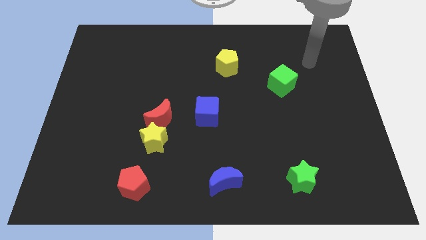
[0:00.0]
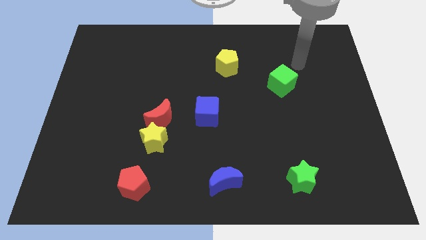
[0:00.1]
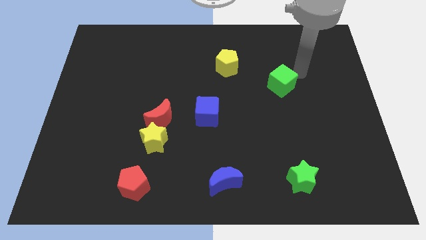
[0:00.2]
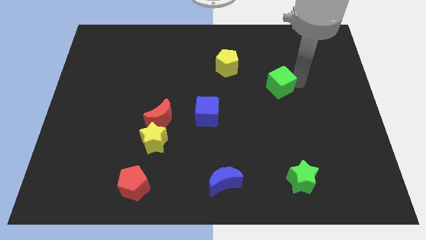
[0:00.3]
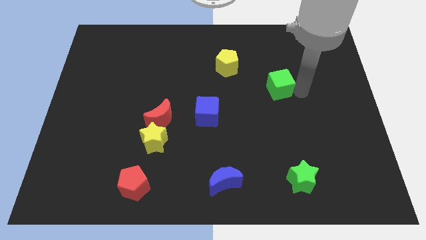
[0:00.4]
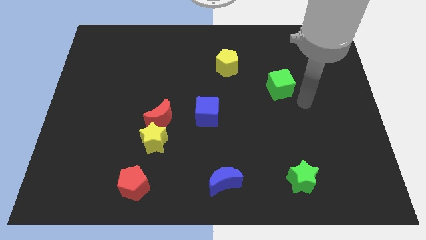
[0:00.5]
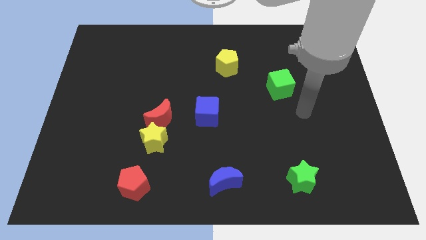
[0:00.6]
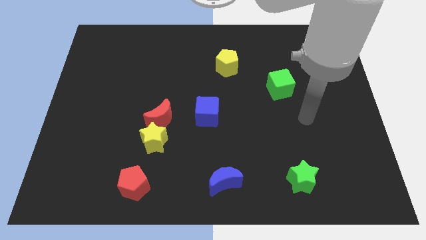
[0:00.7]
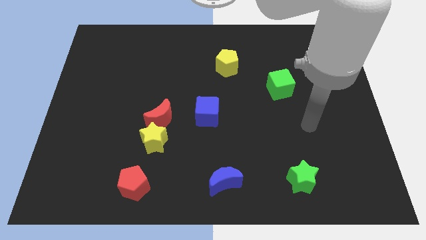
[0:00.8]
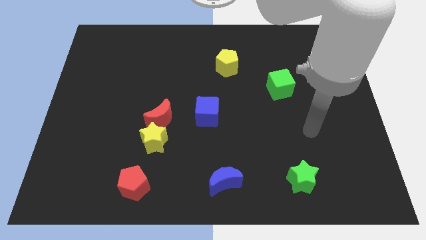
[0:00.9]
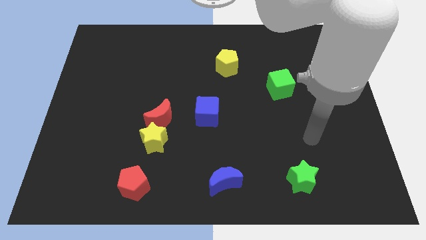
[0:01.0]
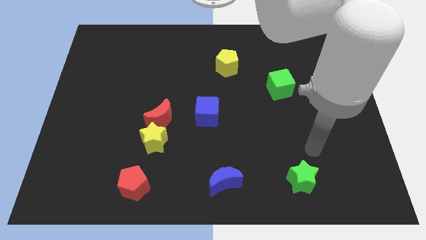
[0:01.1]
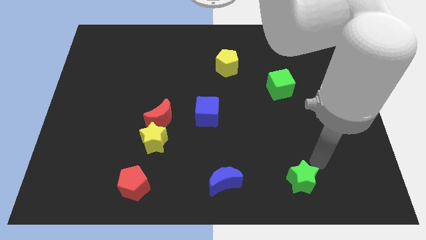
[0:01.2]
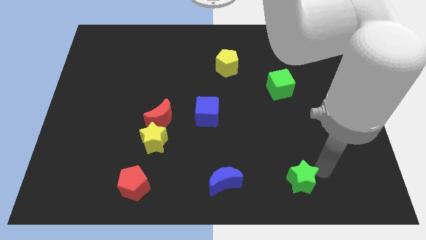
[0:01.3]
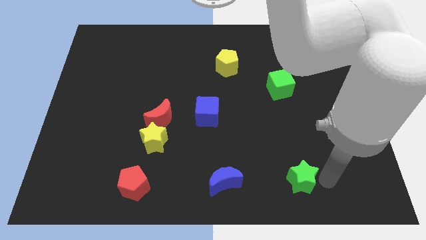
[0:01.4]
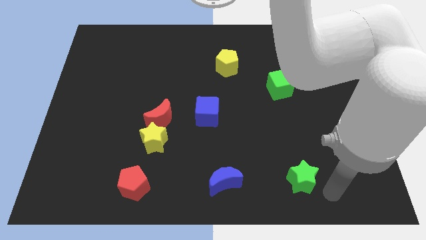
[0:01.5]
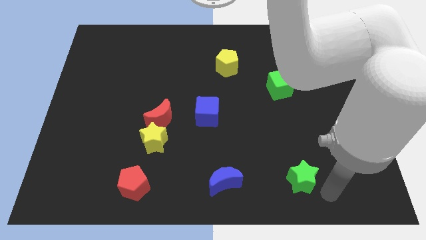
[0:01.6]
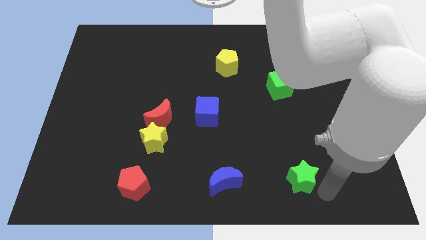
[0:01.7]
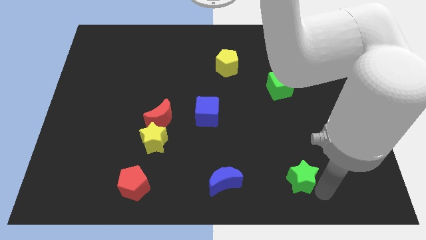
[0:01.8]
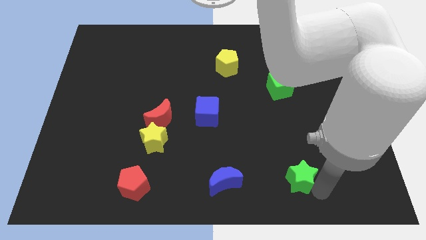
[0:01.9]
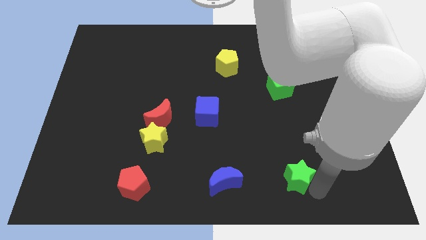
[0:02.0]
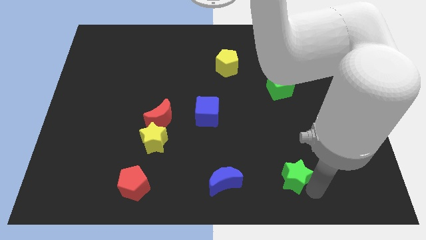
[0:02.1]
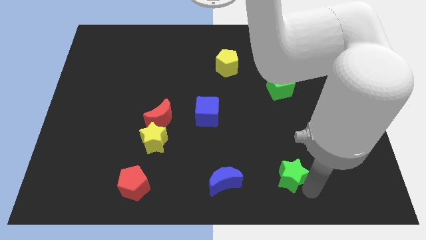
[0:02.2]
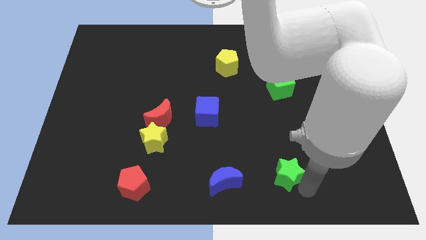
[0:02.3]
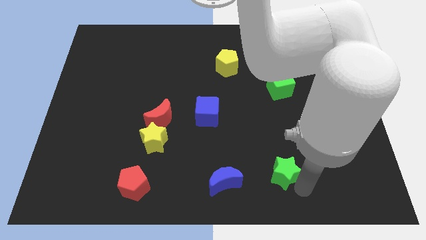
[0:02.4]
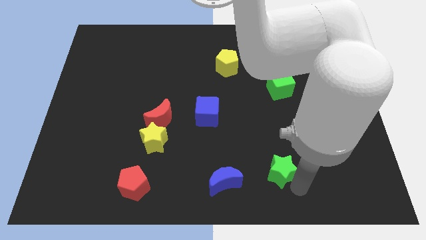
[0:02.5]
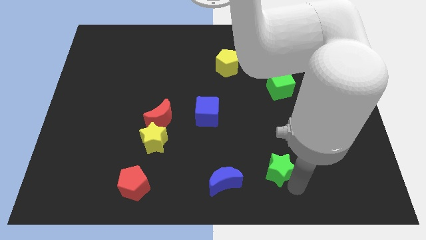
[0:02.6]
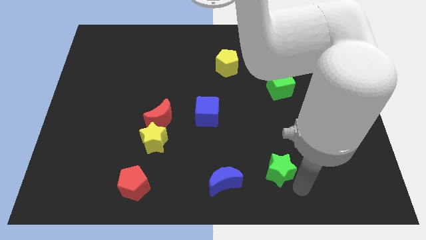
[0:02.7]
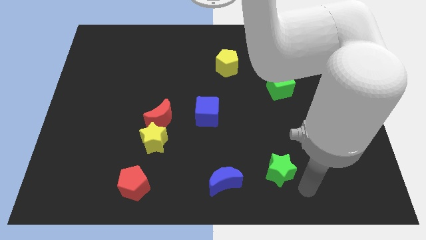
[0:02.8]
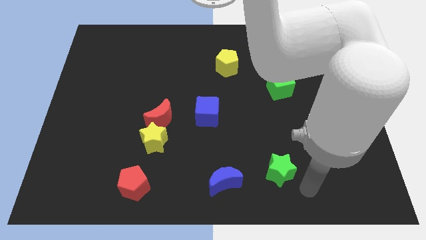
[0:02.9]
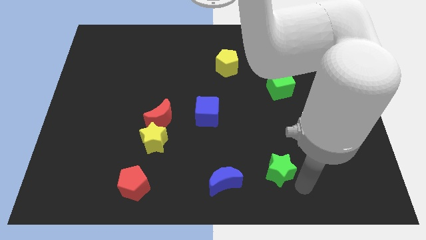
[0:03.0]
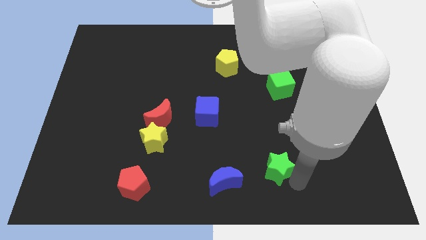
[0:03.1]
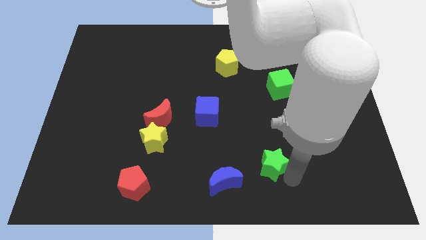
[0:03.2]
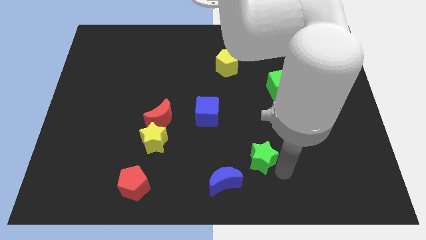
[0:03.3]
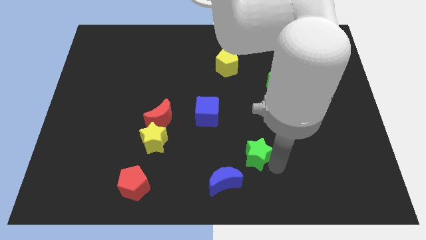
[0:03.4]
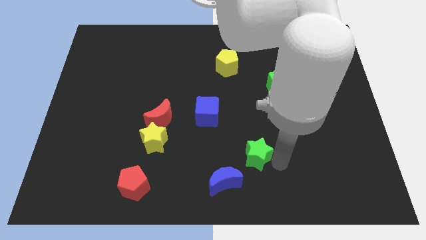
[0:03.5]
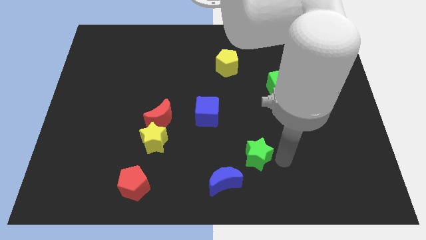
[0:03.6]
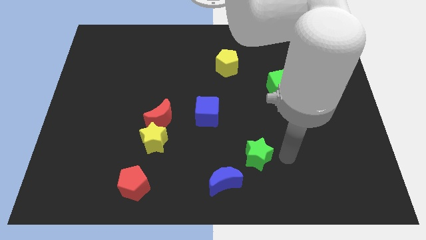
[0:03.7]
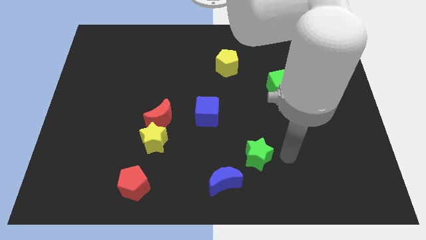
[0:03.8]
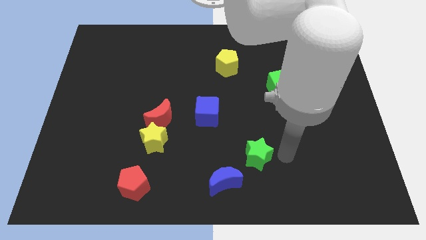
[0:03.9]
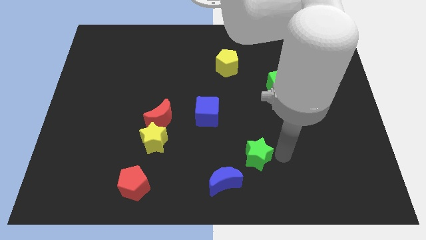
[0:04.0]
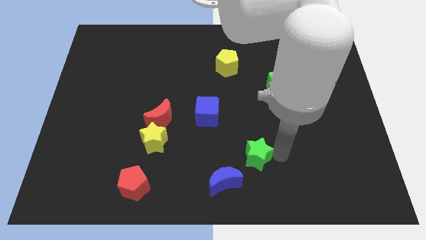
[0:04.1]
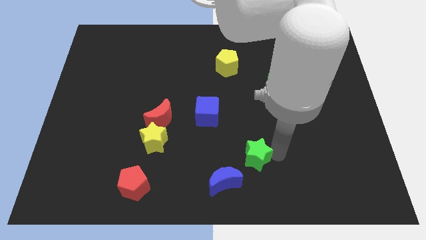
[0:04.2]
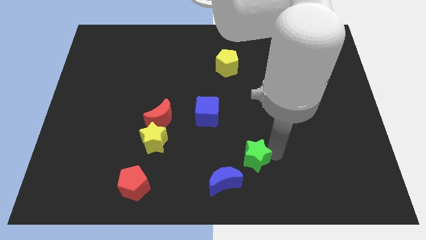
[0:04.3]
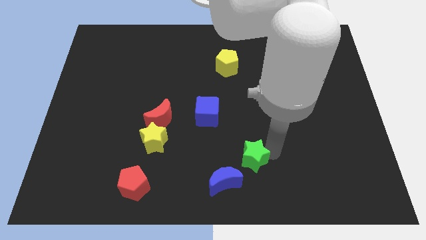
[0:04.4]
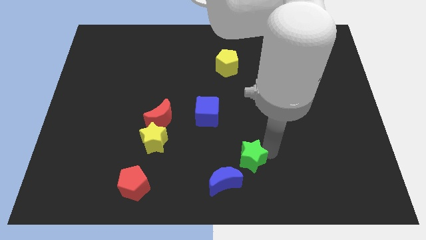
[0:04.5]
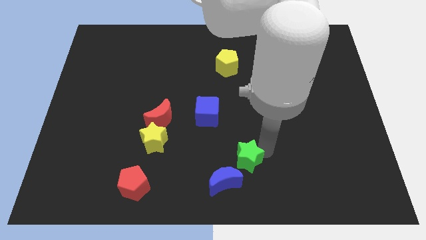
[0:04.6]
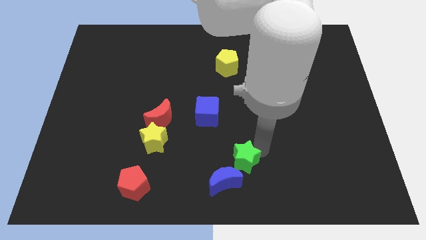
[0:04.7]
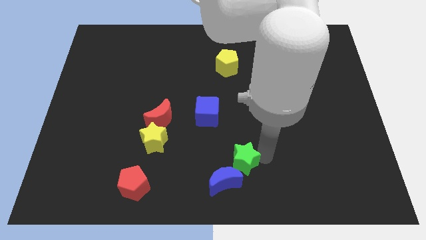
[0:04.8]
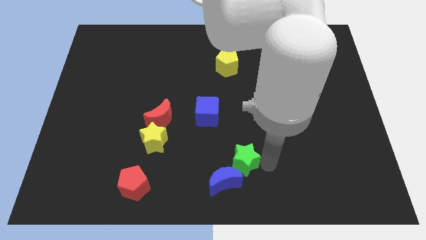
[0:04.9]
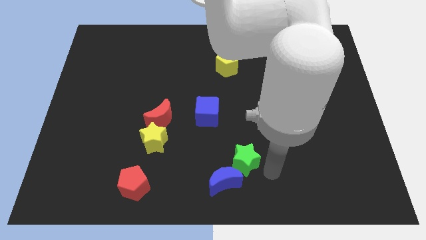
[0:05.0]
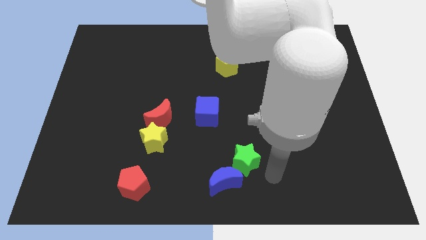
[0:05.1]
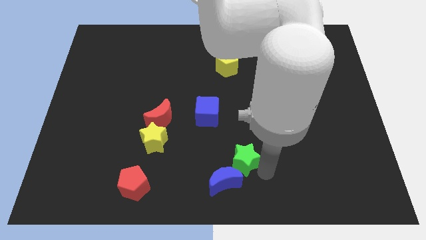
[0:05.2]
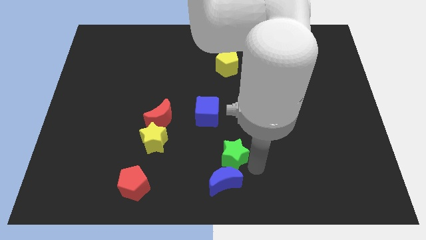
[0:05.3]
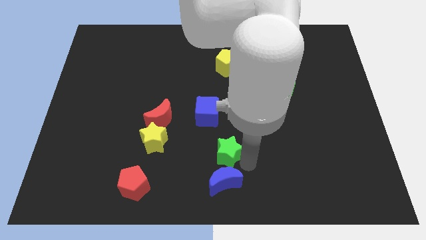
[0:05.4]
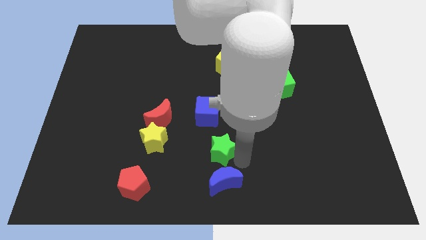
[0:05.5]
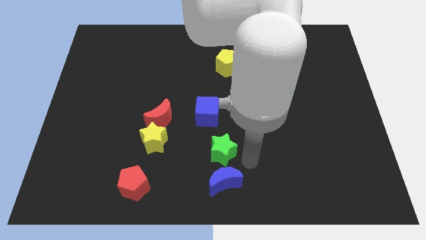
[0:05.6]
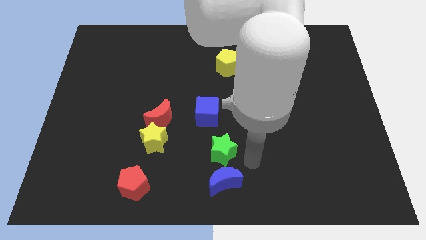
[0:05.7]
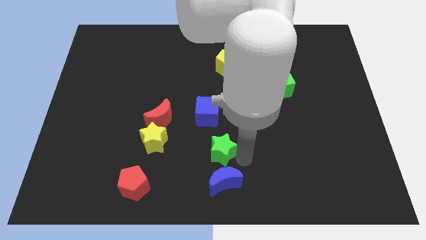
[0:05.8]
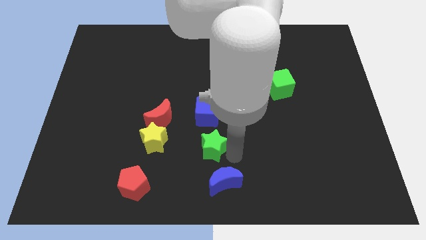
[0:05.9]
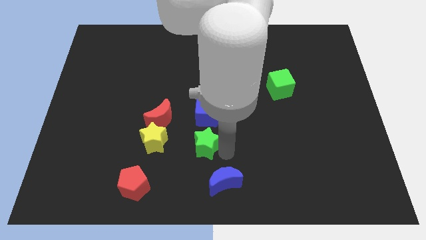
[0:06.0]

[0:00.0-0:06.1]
push the green star to the bottom right side of the red moon

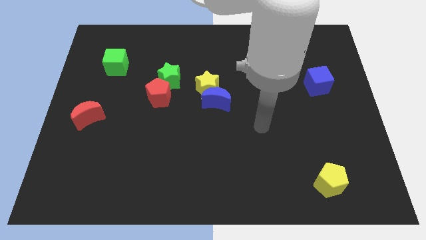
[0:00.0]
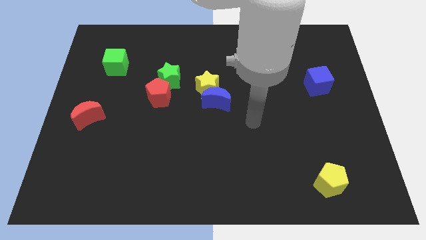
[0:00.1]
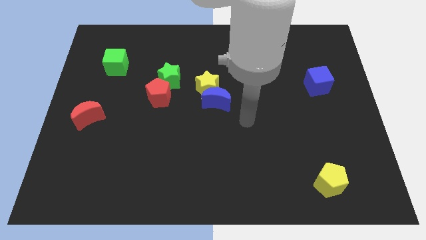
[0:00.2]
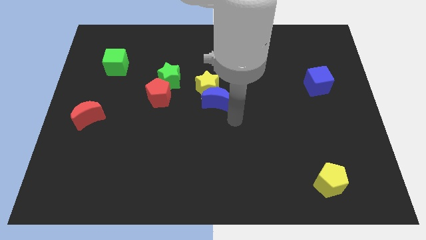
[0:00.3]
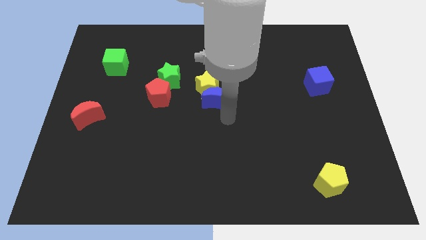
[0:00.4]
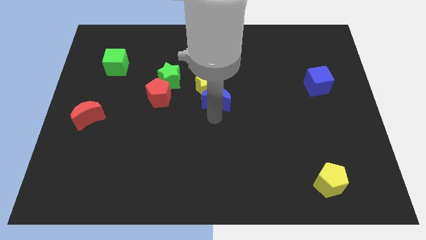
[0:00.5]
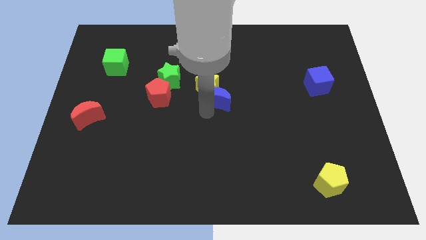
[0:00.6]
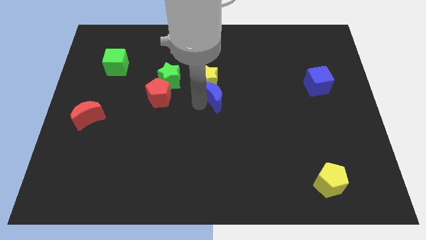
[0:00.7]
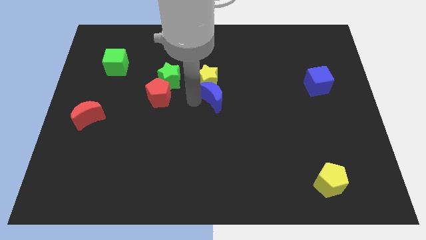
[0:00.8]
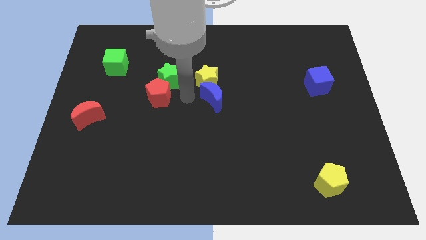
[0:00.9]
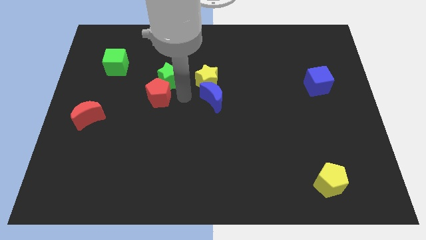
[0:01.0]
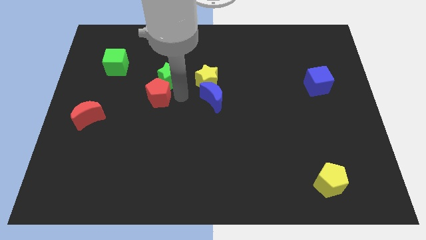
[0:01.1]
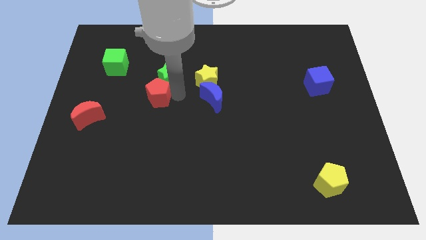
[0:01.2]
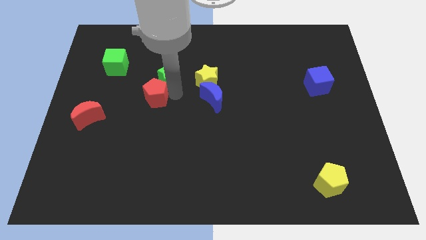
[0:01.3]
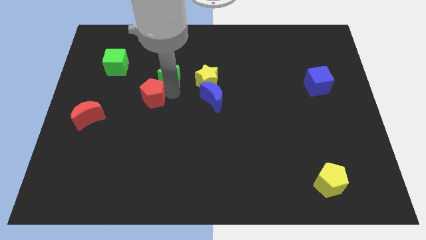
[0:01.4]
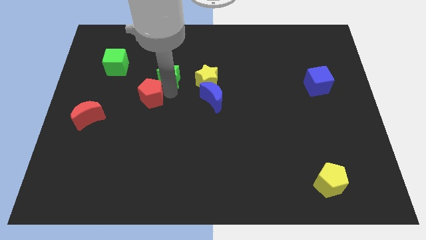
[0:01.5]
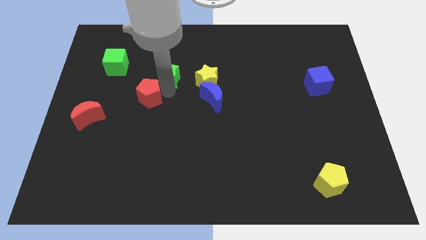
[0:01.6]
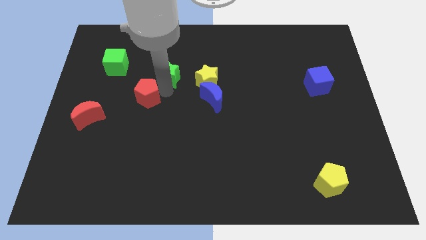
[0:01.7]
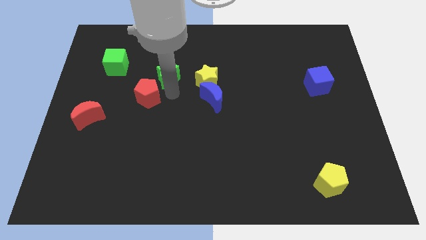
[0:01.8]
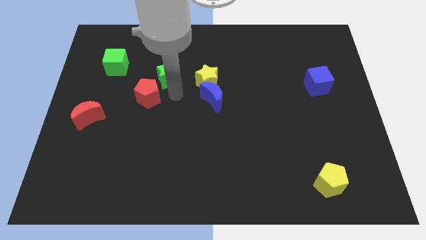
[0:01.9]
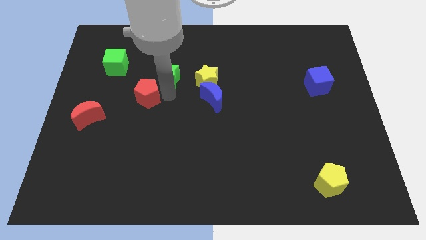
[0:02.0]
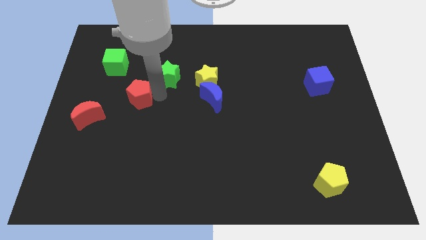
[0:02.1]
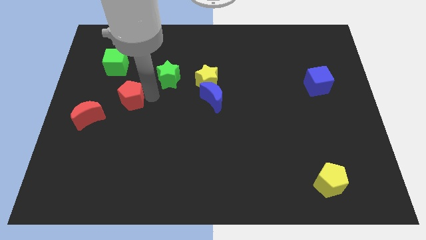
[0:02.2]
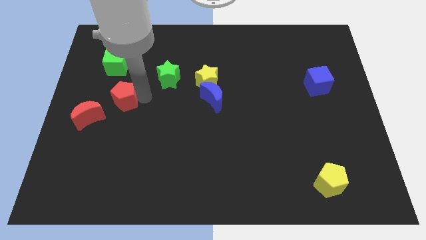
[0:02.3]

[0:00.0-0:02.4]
push the red pentagon below the green cube
